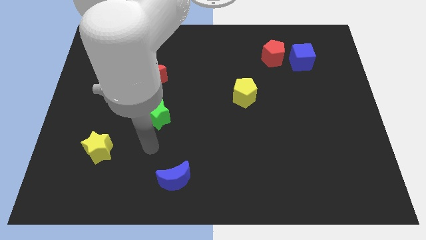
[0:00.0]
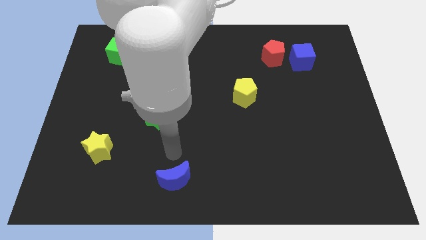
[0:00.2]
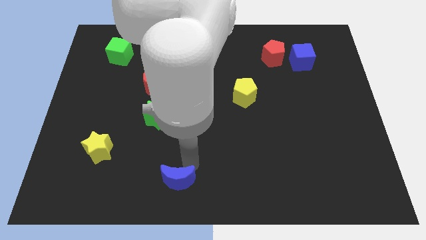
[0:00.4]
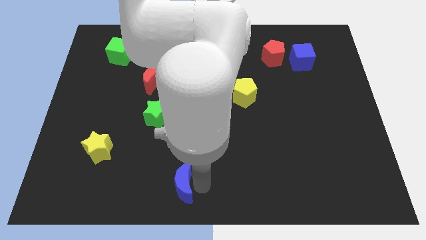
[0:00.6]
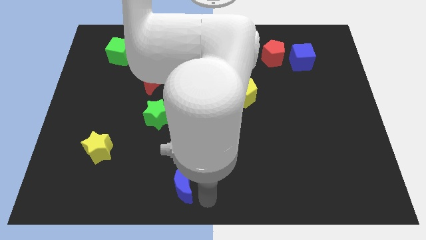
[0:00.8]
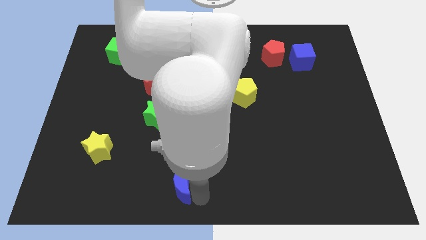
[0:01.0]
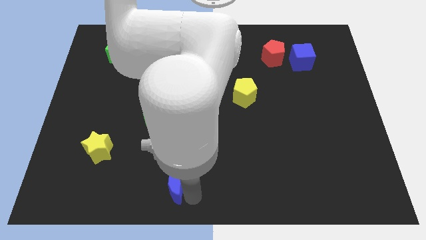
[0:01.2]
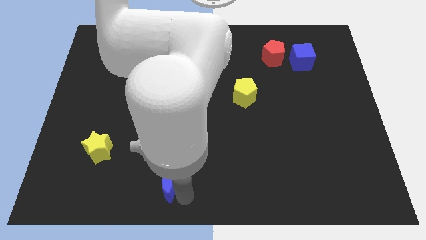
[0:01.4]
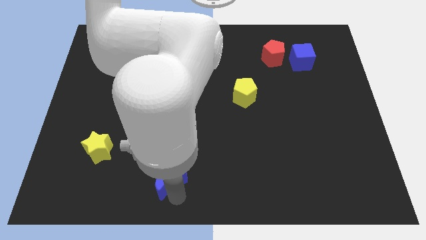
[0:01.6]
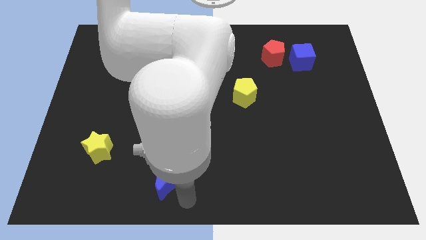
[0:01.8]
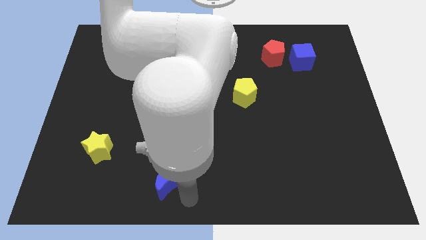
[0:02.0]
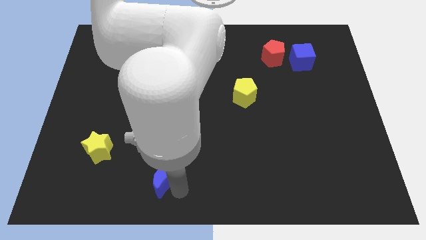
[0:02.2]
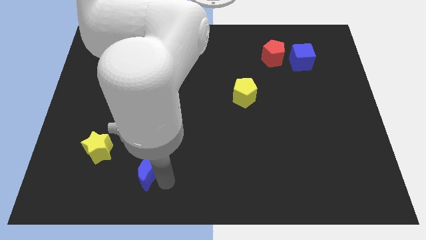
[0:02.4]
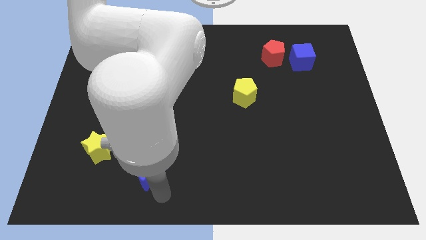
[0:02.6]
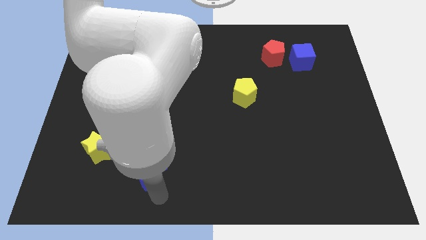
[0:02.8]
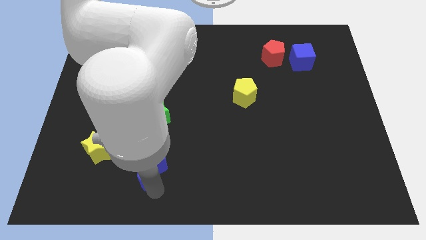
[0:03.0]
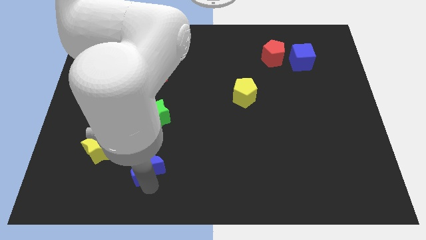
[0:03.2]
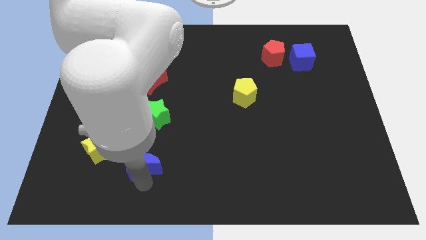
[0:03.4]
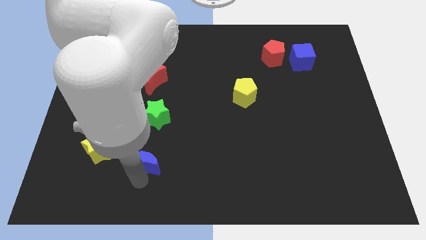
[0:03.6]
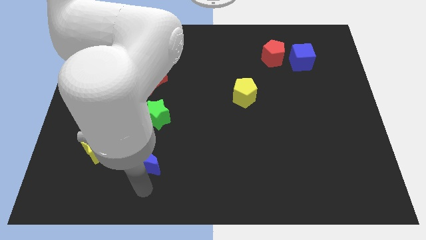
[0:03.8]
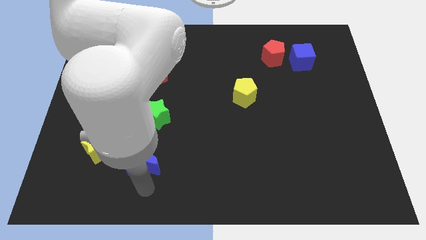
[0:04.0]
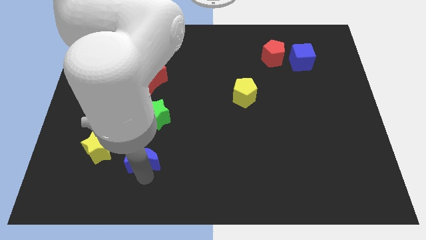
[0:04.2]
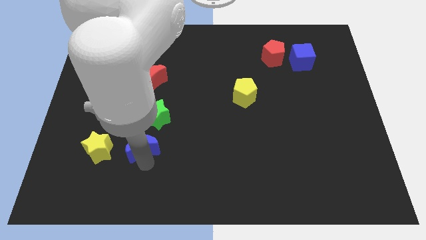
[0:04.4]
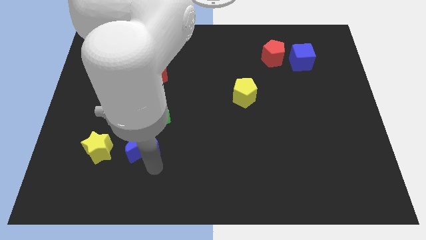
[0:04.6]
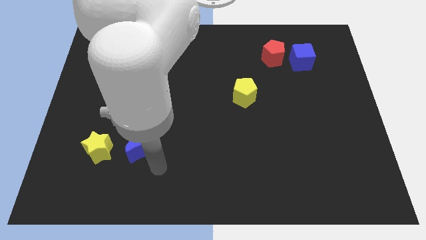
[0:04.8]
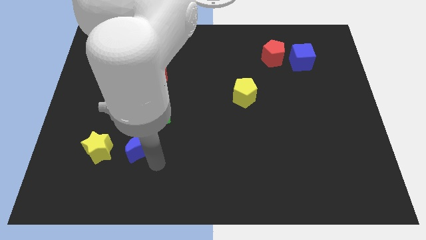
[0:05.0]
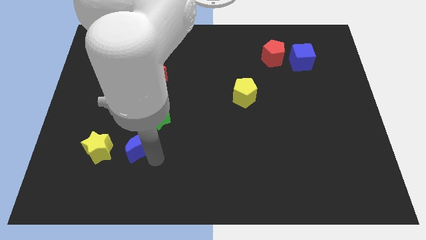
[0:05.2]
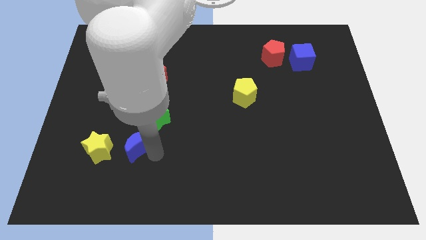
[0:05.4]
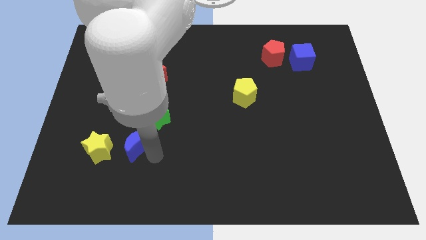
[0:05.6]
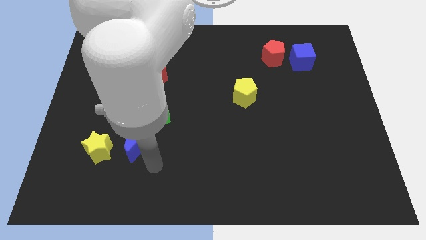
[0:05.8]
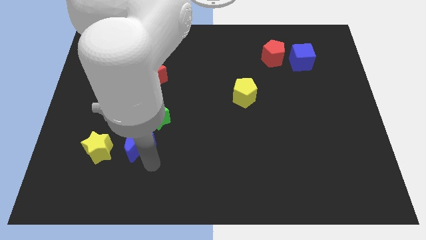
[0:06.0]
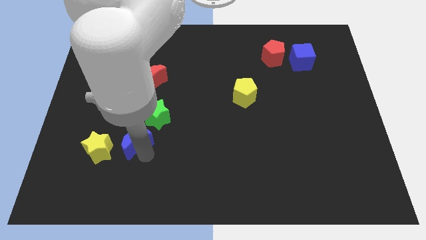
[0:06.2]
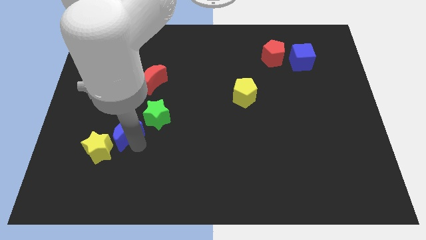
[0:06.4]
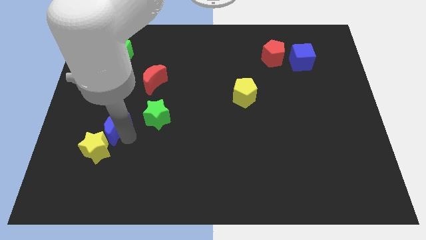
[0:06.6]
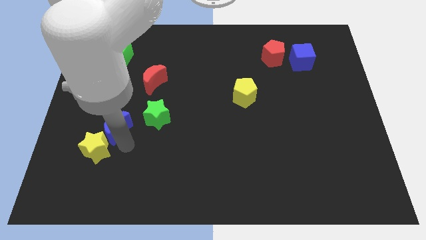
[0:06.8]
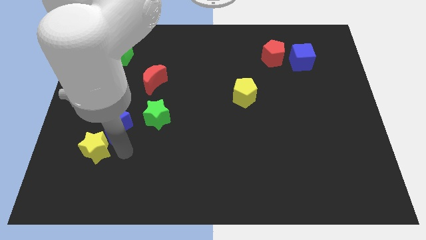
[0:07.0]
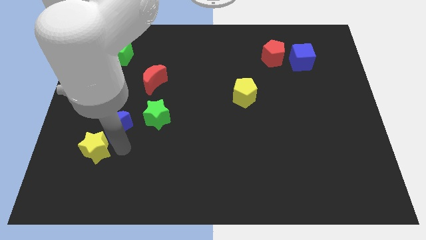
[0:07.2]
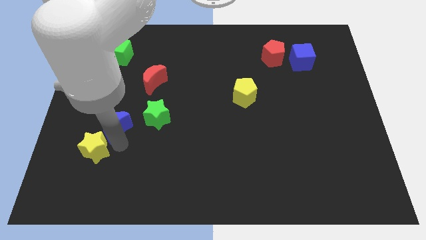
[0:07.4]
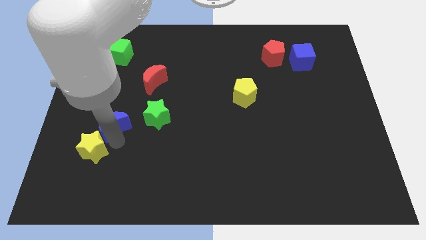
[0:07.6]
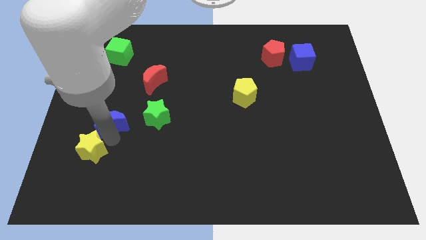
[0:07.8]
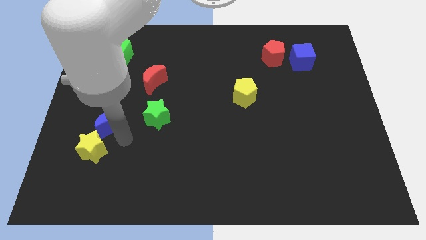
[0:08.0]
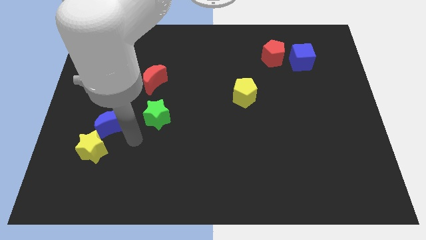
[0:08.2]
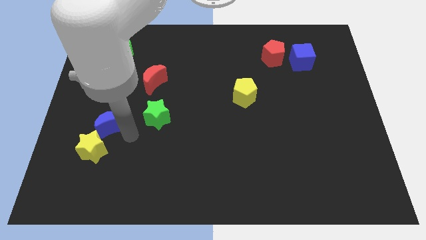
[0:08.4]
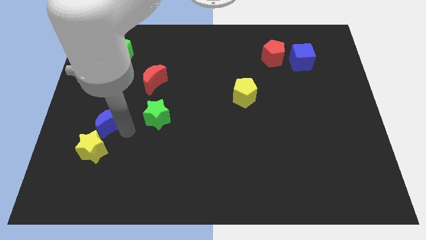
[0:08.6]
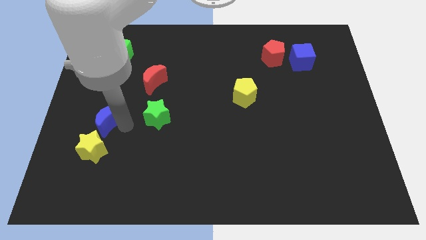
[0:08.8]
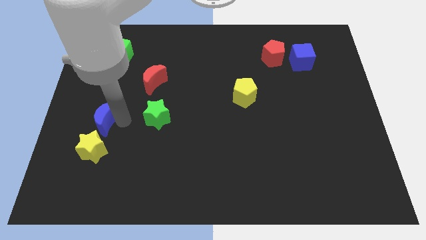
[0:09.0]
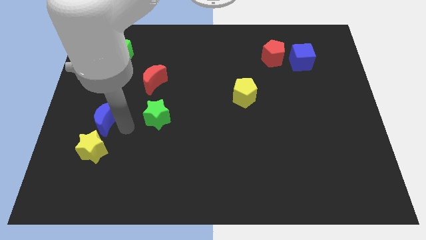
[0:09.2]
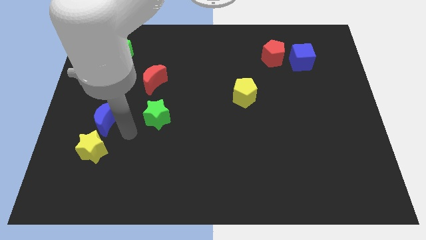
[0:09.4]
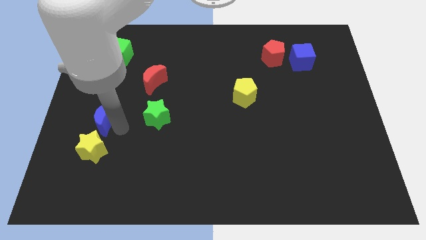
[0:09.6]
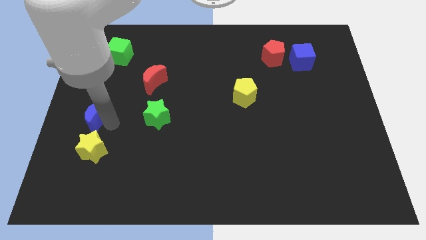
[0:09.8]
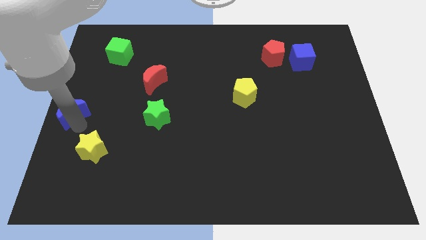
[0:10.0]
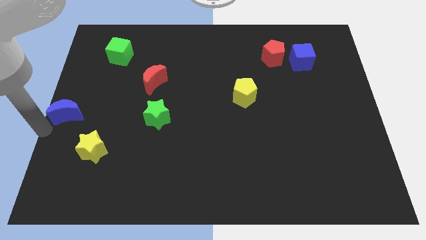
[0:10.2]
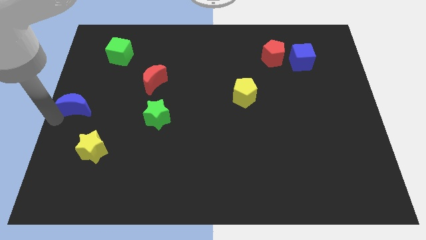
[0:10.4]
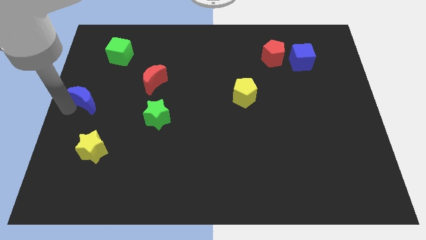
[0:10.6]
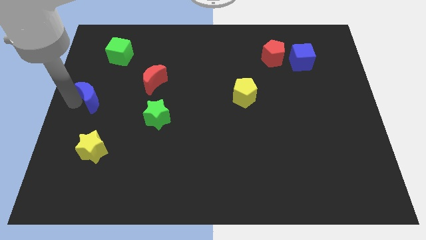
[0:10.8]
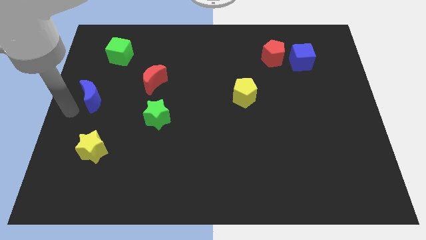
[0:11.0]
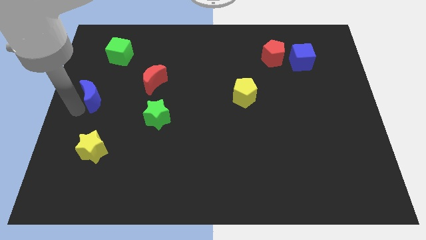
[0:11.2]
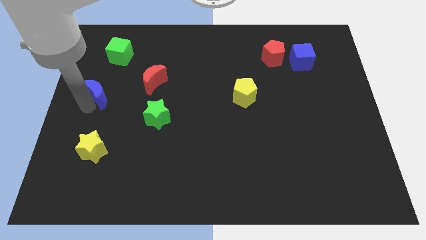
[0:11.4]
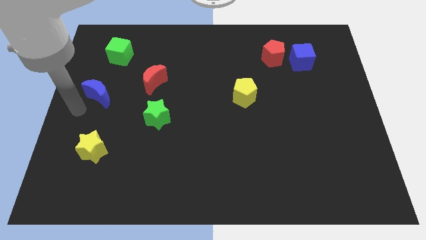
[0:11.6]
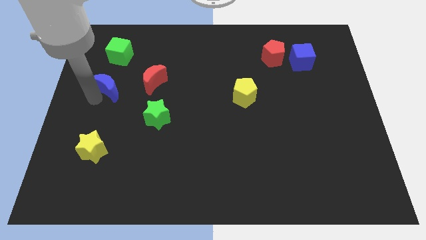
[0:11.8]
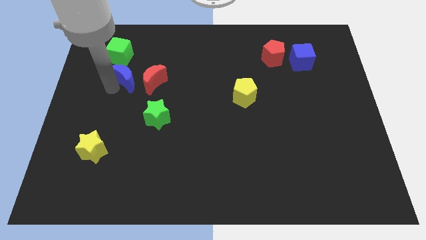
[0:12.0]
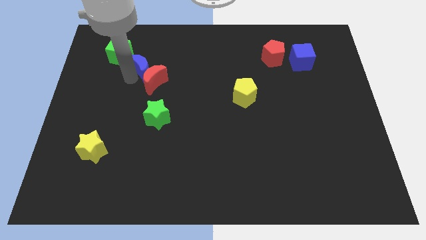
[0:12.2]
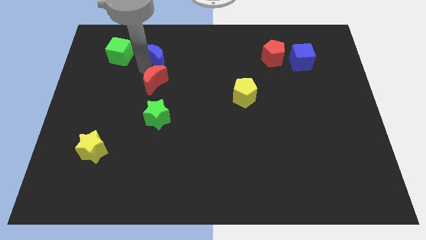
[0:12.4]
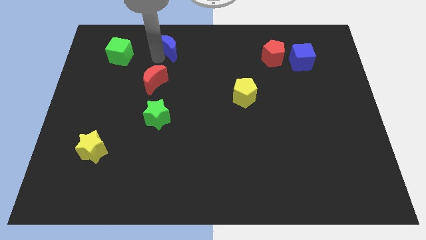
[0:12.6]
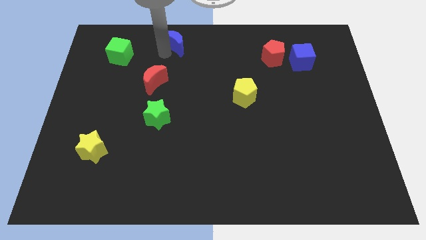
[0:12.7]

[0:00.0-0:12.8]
push the blue moon to the towards your base
